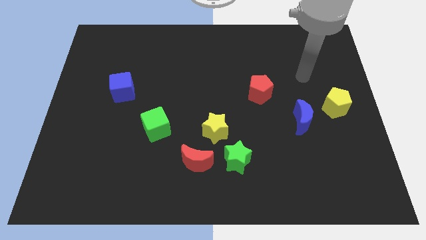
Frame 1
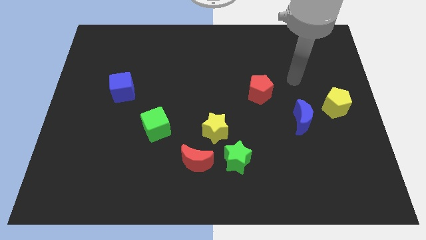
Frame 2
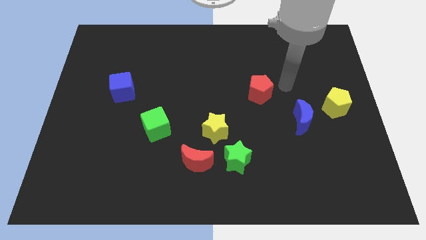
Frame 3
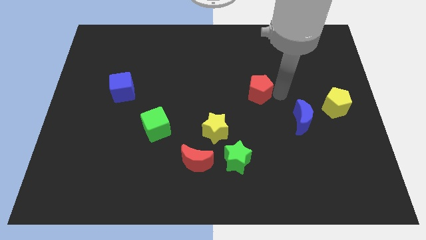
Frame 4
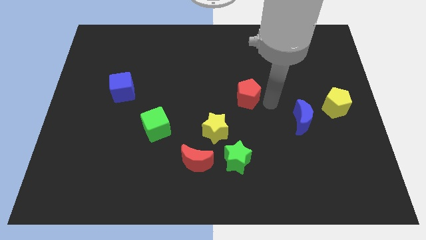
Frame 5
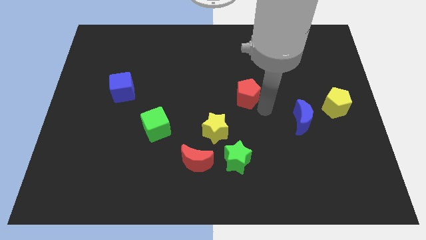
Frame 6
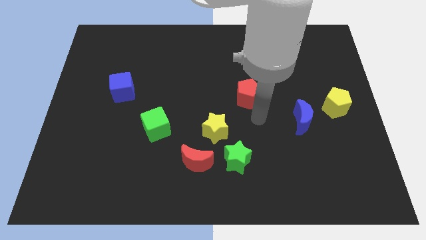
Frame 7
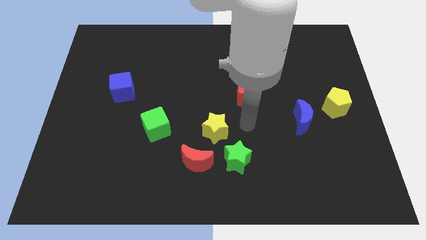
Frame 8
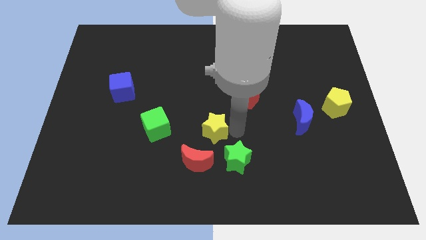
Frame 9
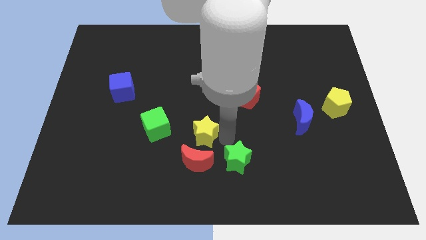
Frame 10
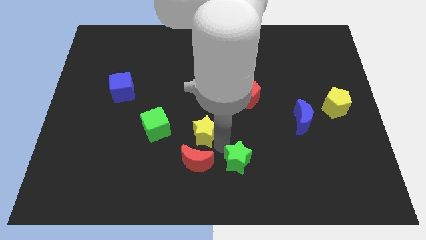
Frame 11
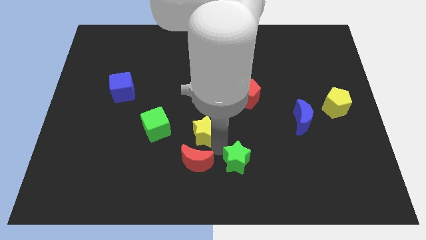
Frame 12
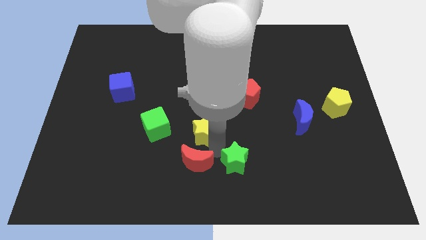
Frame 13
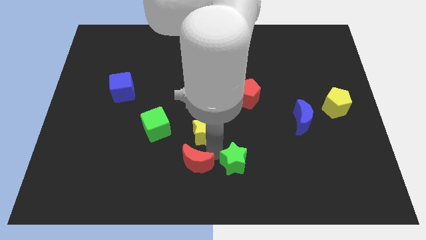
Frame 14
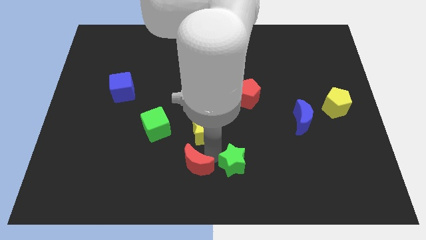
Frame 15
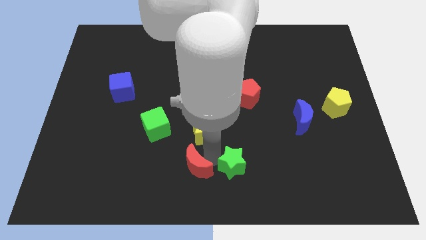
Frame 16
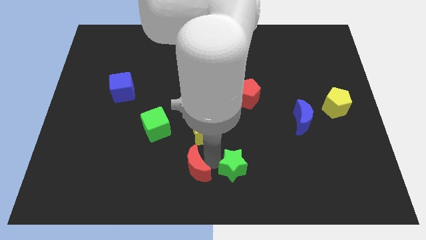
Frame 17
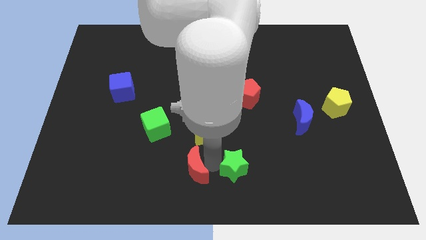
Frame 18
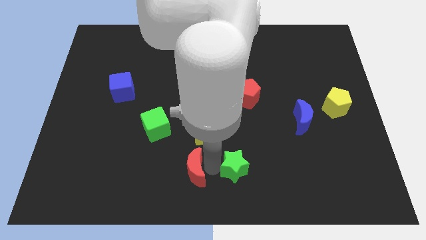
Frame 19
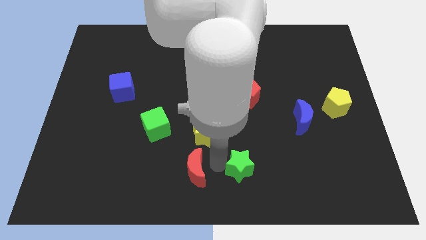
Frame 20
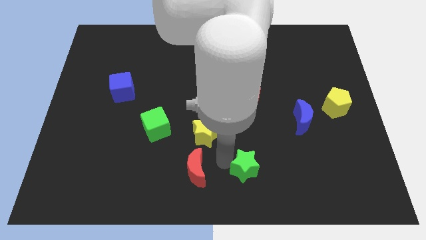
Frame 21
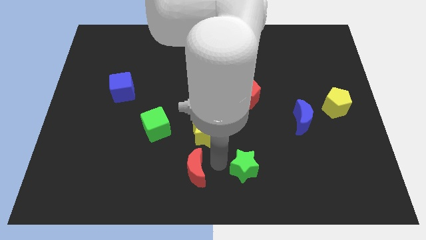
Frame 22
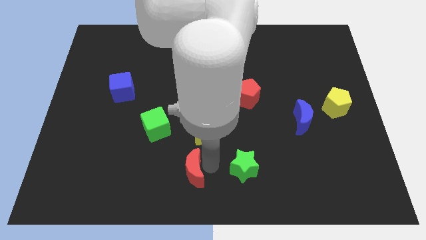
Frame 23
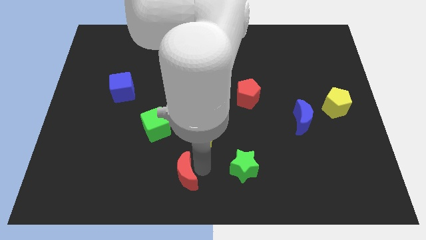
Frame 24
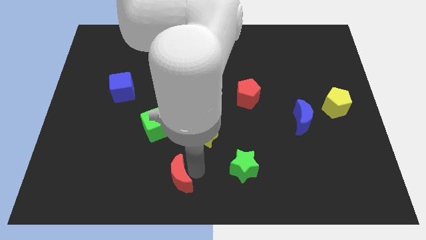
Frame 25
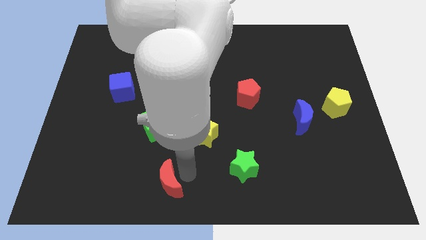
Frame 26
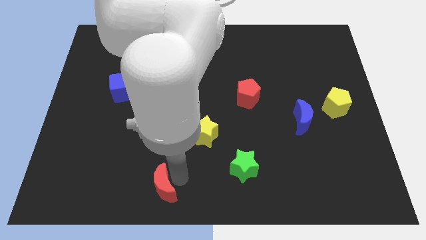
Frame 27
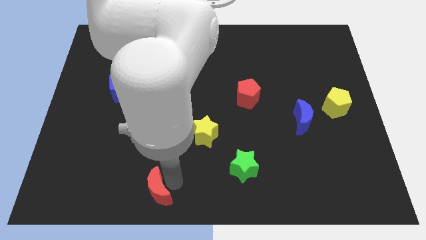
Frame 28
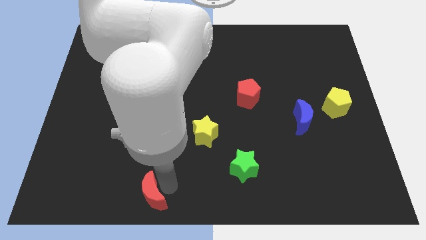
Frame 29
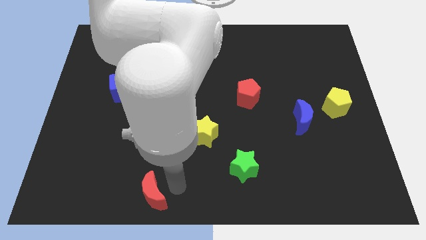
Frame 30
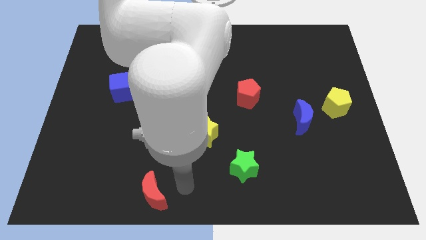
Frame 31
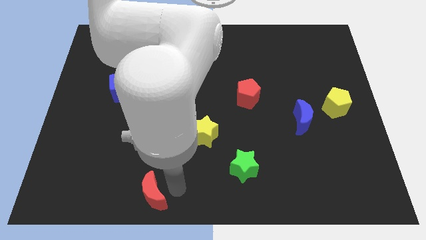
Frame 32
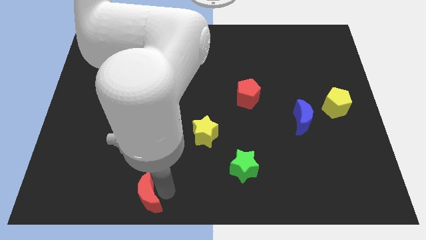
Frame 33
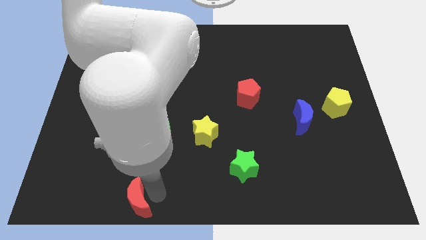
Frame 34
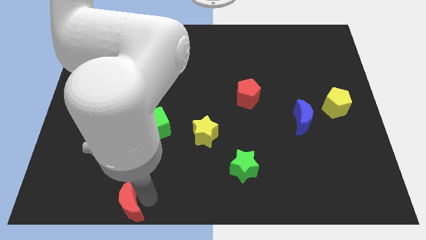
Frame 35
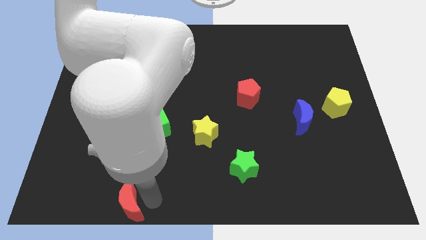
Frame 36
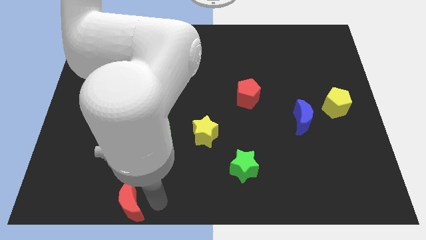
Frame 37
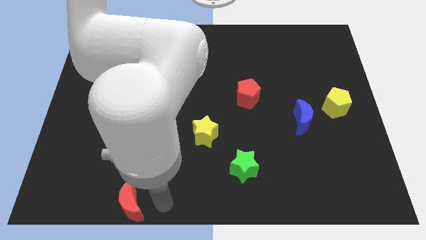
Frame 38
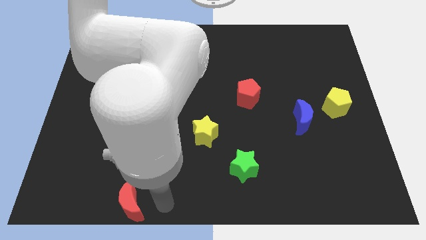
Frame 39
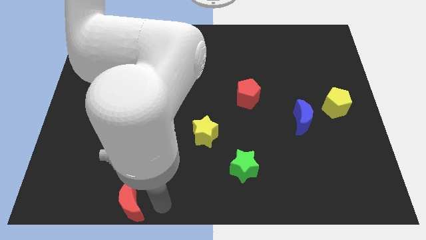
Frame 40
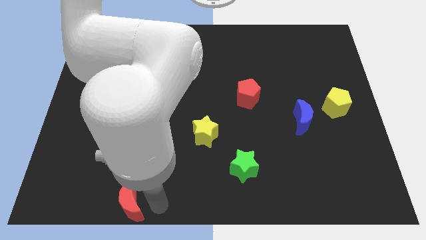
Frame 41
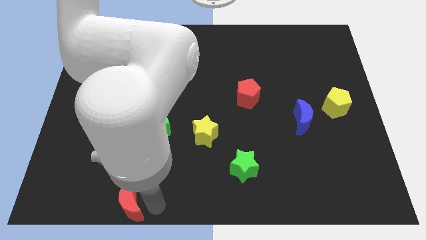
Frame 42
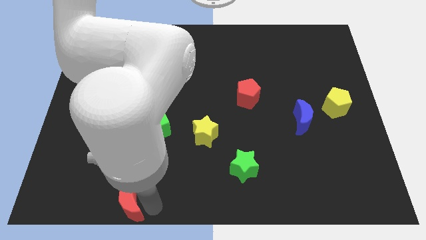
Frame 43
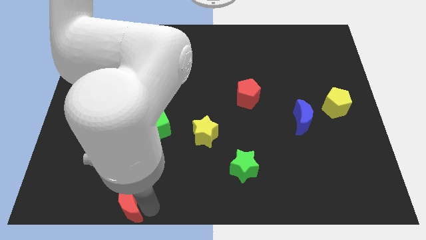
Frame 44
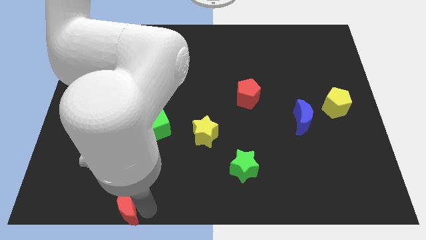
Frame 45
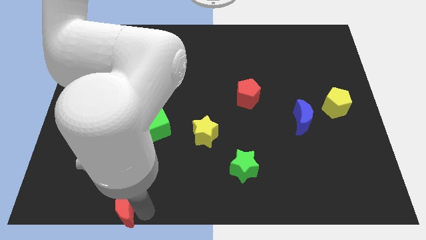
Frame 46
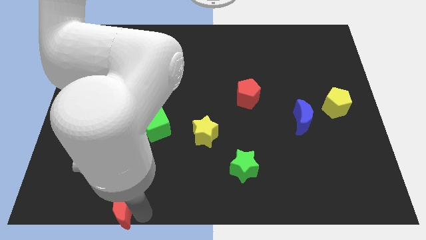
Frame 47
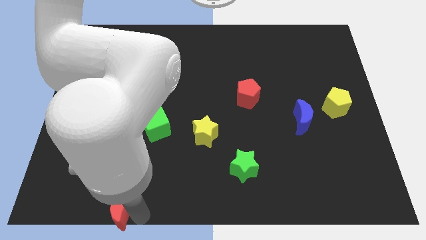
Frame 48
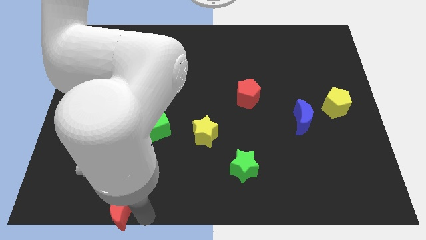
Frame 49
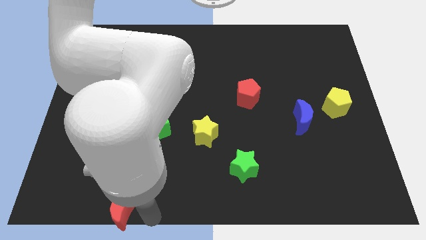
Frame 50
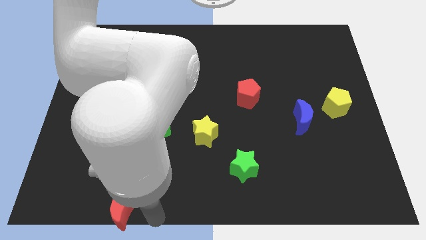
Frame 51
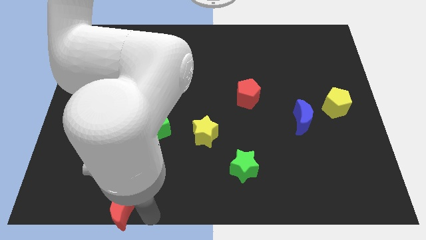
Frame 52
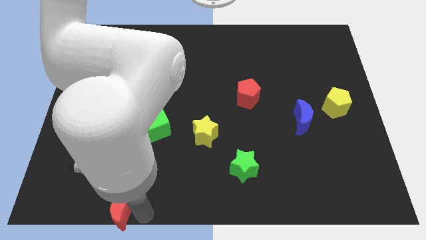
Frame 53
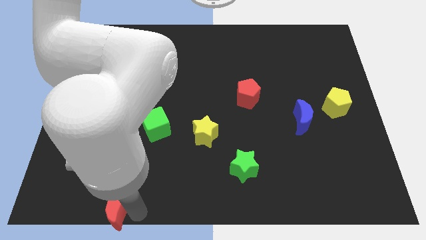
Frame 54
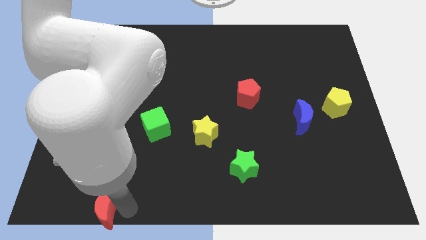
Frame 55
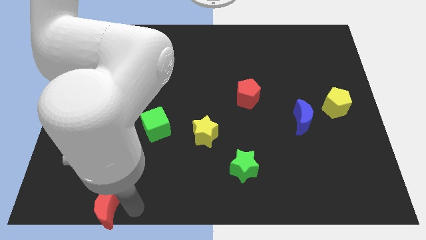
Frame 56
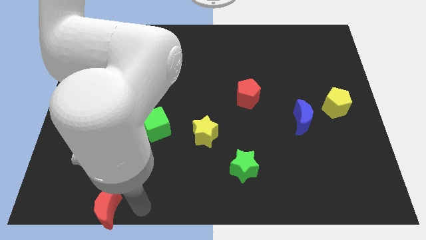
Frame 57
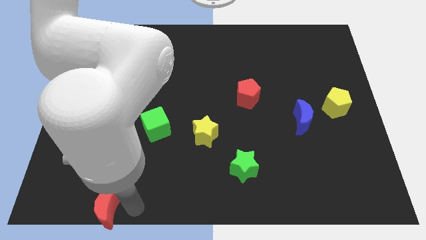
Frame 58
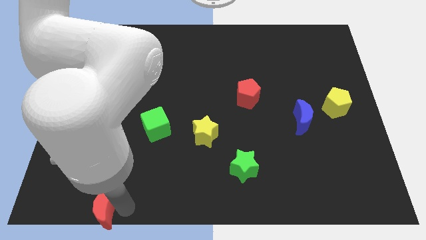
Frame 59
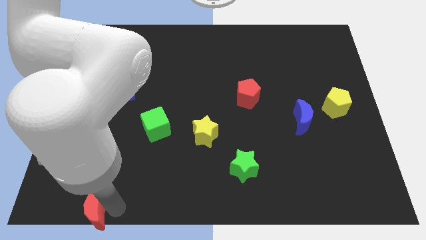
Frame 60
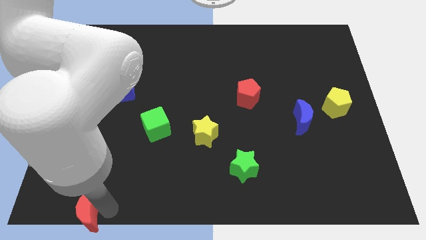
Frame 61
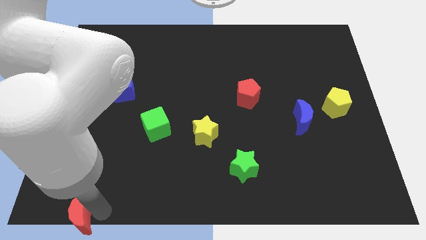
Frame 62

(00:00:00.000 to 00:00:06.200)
push the red moon to the lower left corner

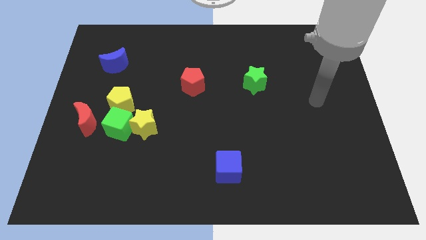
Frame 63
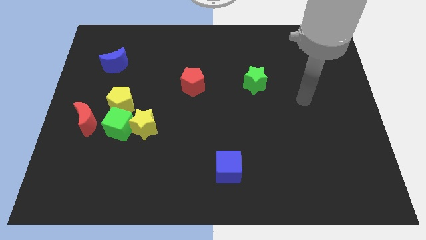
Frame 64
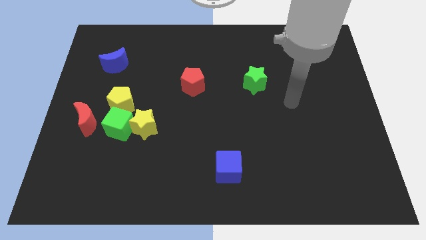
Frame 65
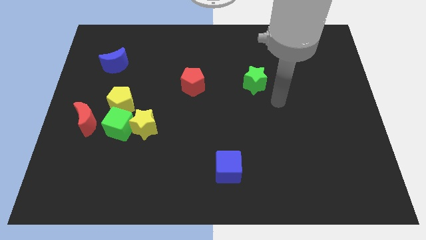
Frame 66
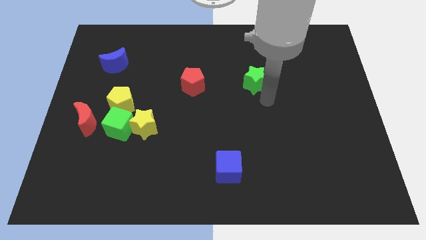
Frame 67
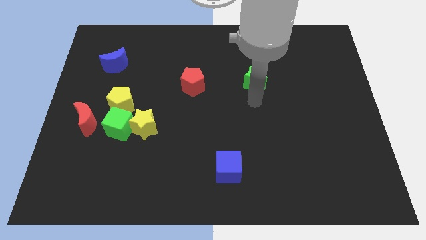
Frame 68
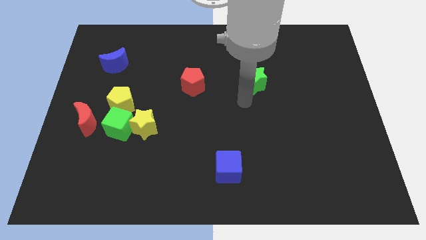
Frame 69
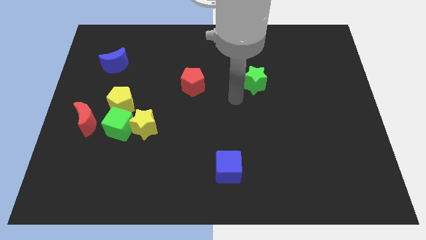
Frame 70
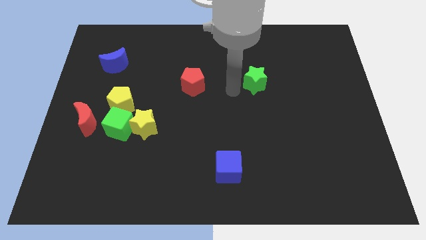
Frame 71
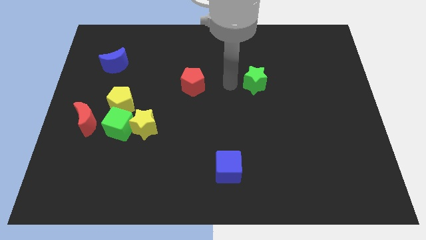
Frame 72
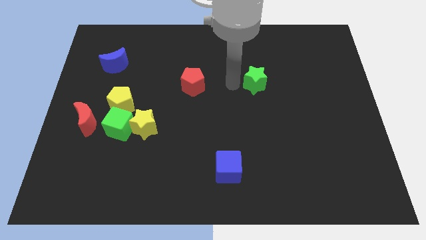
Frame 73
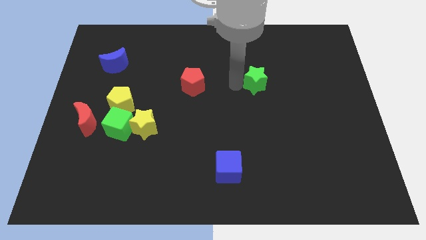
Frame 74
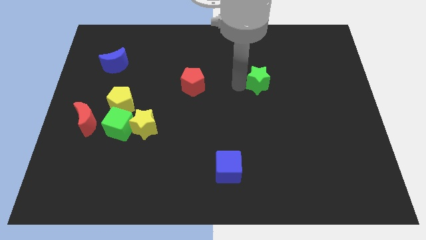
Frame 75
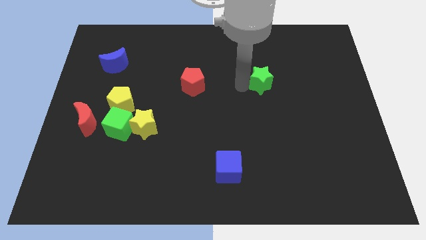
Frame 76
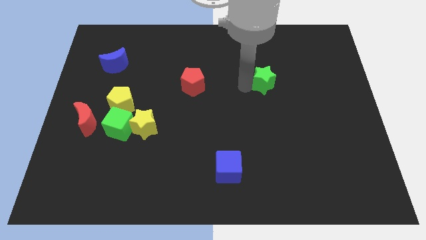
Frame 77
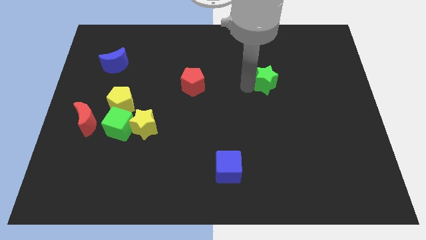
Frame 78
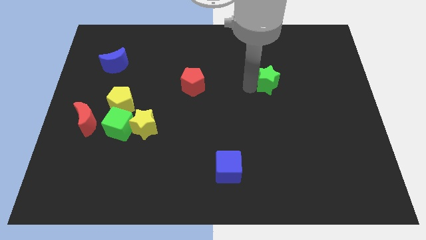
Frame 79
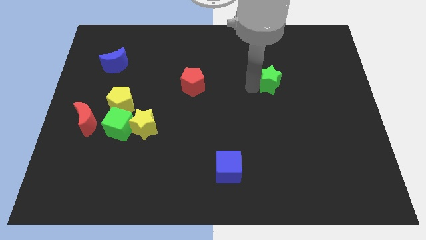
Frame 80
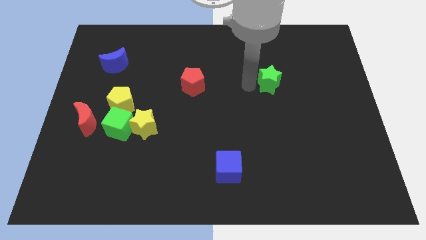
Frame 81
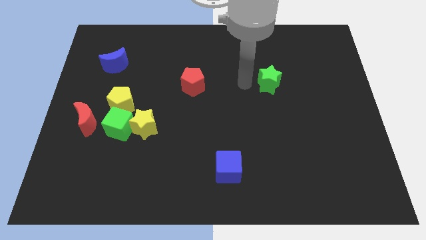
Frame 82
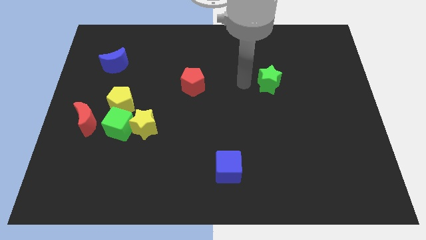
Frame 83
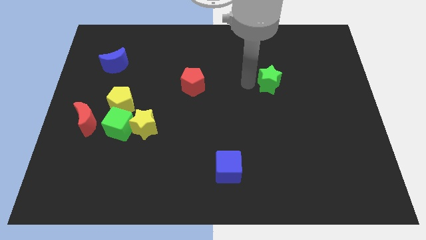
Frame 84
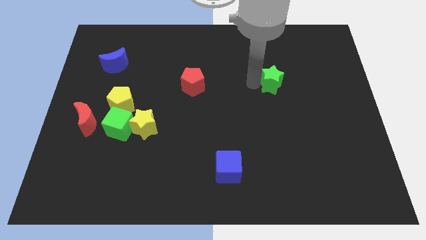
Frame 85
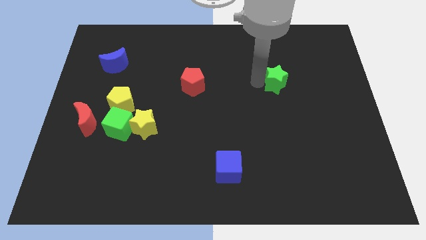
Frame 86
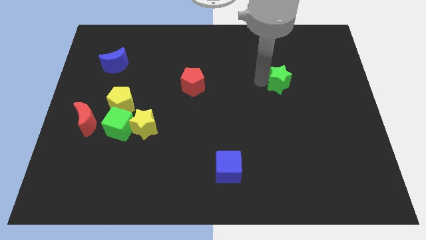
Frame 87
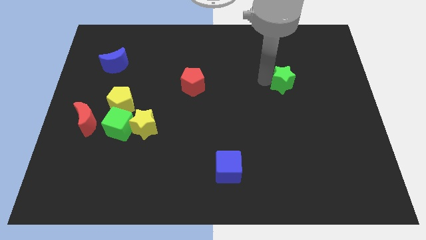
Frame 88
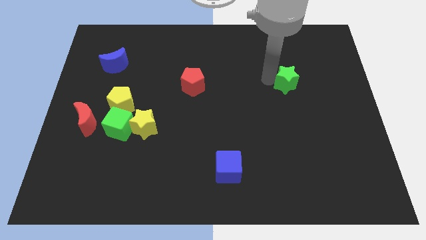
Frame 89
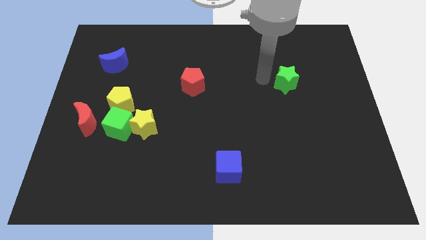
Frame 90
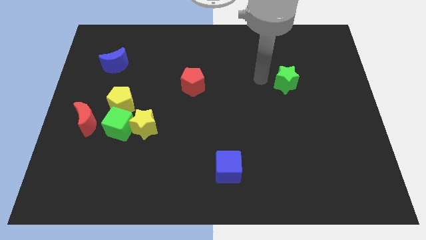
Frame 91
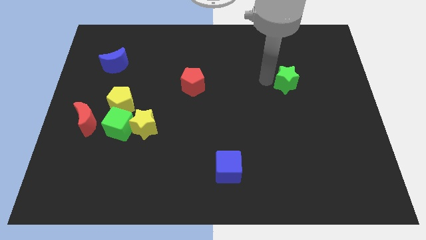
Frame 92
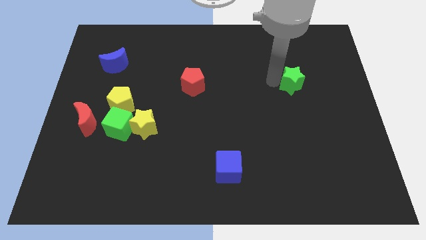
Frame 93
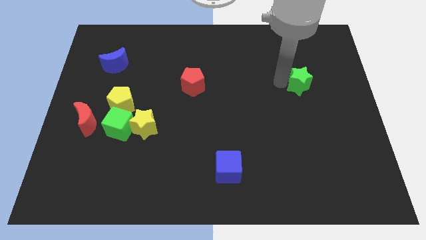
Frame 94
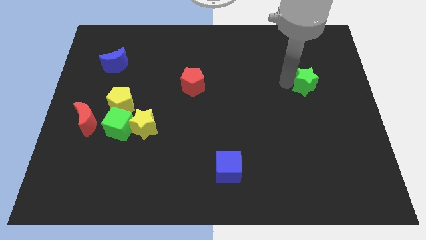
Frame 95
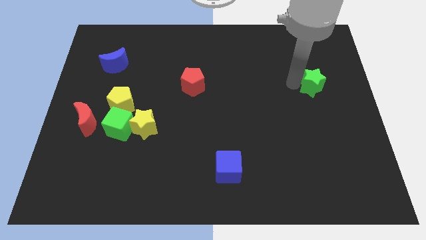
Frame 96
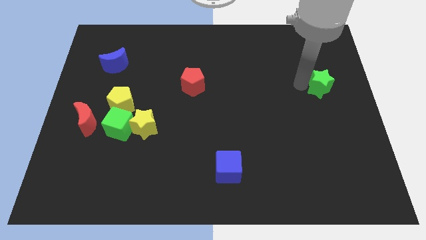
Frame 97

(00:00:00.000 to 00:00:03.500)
move the green star to the right side
